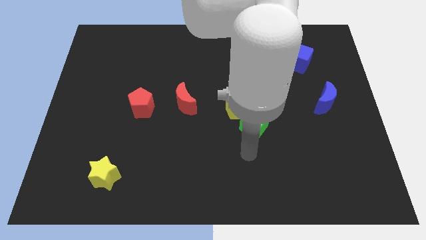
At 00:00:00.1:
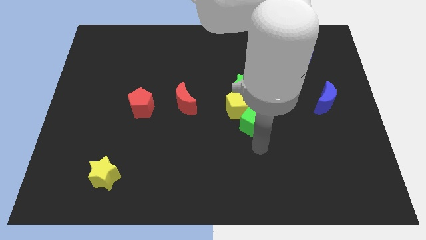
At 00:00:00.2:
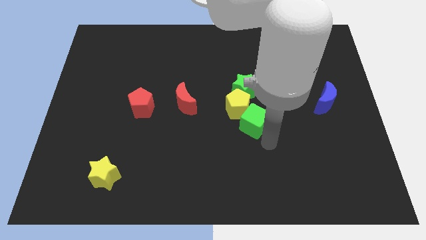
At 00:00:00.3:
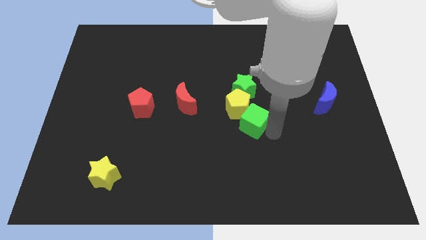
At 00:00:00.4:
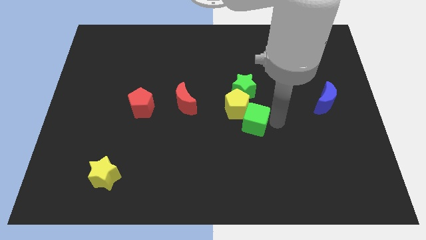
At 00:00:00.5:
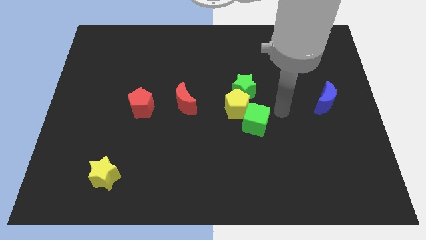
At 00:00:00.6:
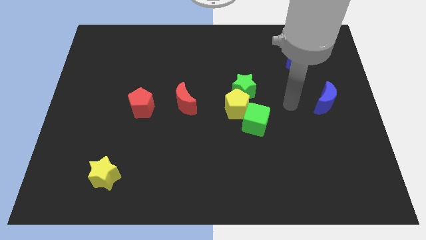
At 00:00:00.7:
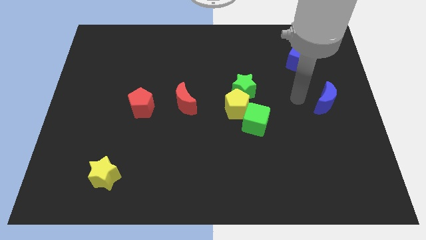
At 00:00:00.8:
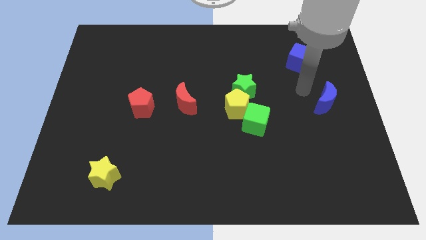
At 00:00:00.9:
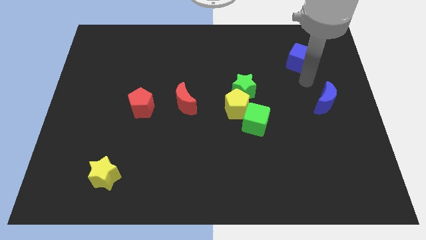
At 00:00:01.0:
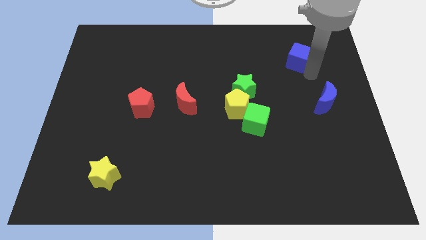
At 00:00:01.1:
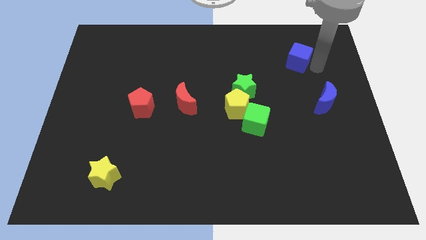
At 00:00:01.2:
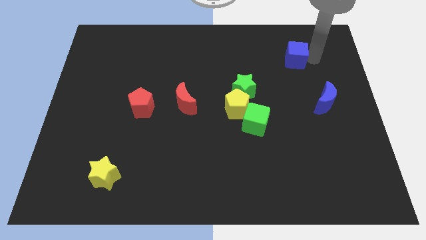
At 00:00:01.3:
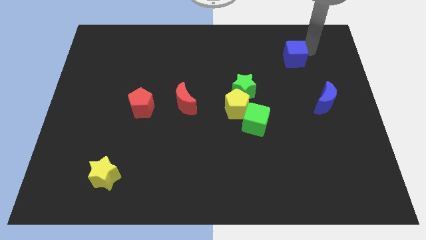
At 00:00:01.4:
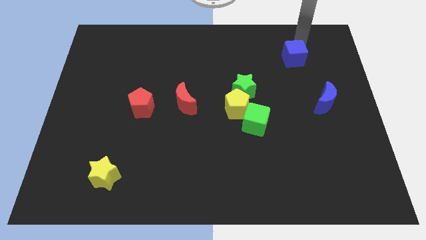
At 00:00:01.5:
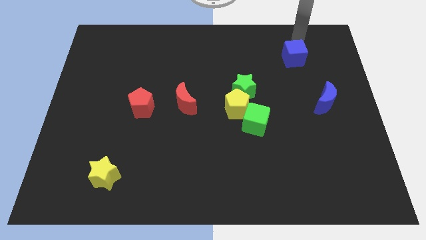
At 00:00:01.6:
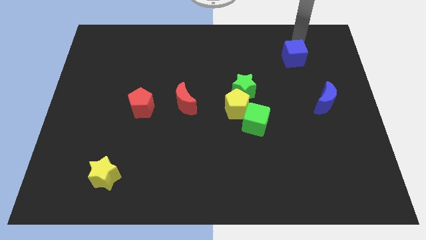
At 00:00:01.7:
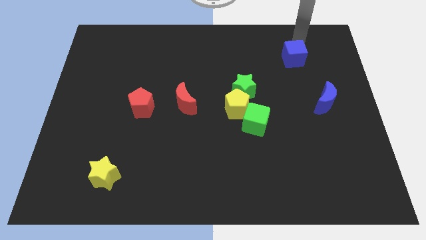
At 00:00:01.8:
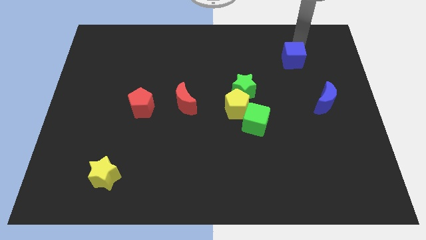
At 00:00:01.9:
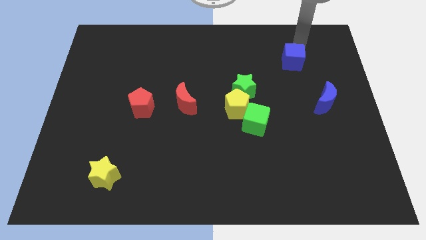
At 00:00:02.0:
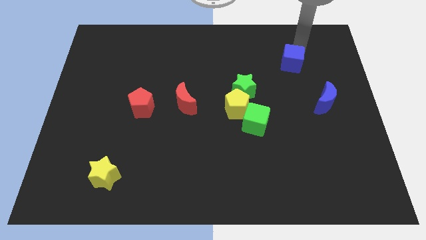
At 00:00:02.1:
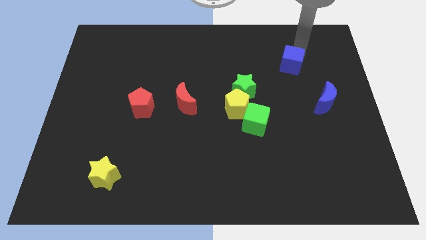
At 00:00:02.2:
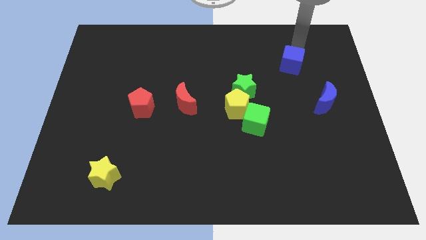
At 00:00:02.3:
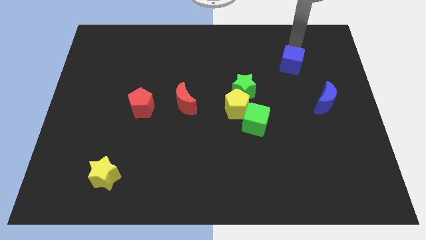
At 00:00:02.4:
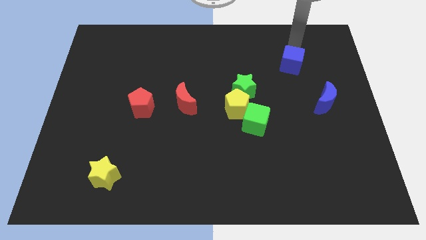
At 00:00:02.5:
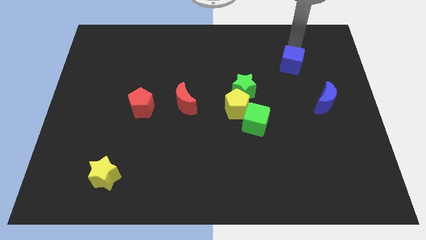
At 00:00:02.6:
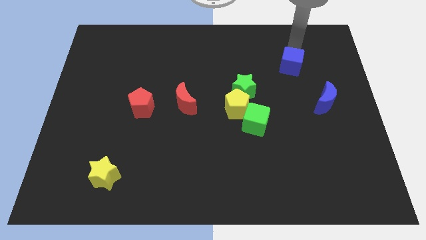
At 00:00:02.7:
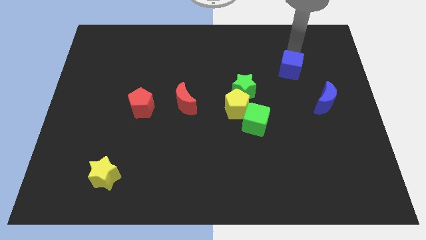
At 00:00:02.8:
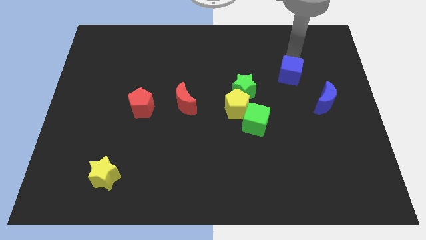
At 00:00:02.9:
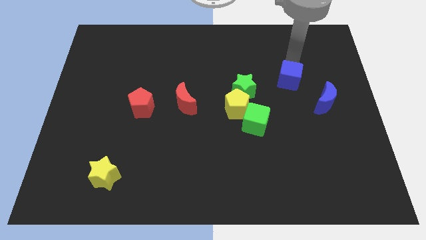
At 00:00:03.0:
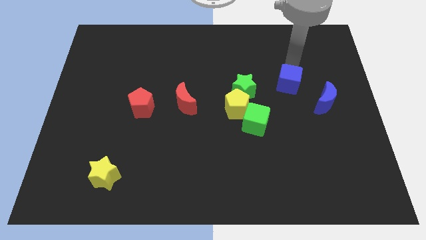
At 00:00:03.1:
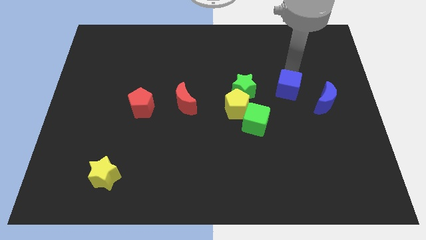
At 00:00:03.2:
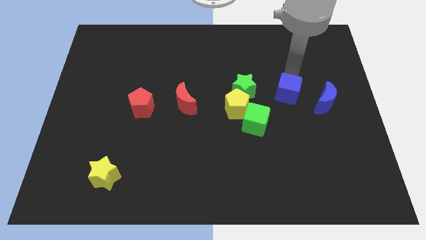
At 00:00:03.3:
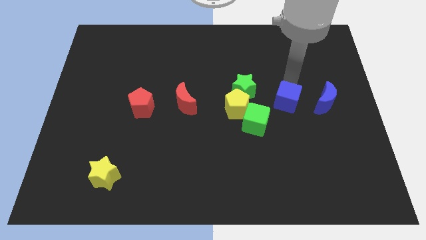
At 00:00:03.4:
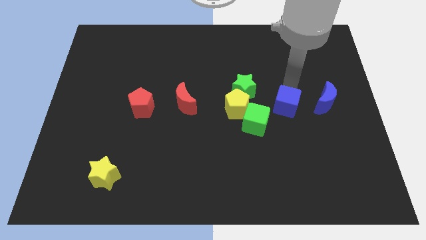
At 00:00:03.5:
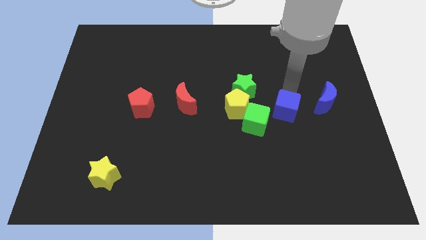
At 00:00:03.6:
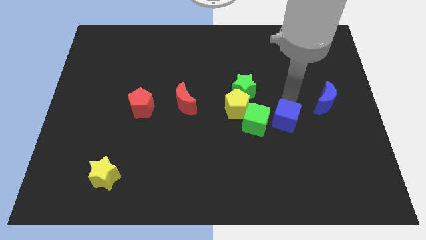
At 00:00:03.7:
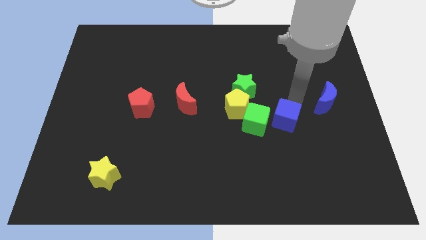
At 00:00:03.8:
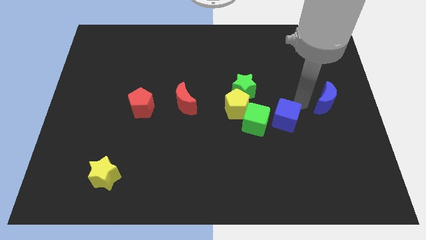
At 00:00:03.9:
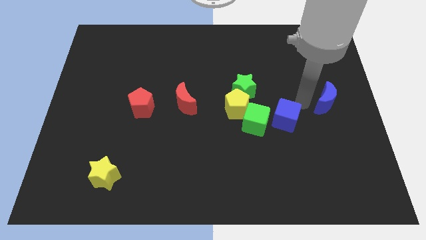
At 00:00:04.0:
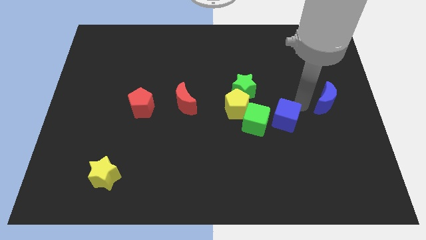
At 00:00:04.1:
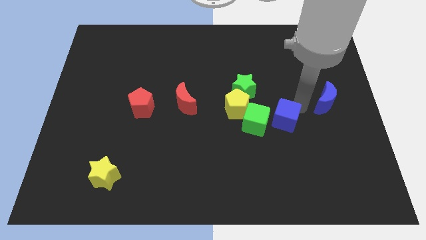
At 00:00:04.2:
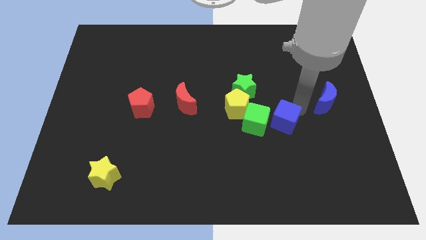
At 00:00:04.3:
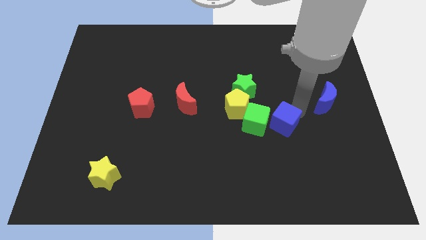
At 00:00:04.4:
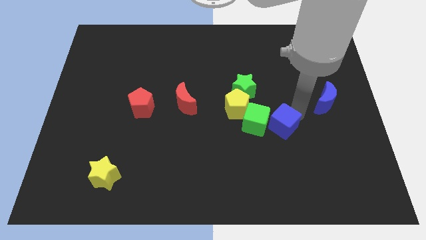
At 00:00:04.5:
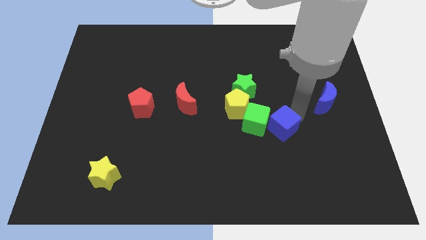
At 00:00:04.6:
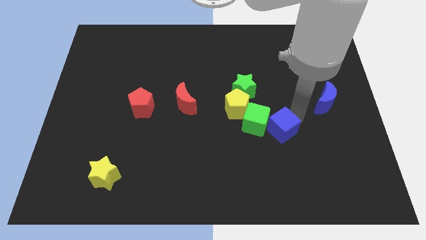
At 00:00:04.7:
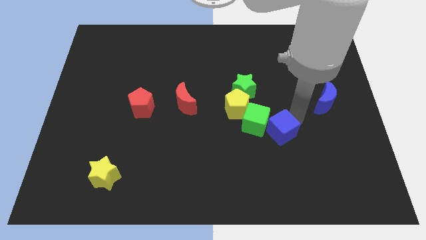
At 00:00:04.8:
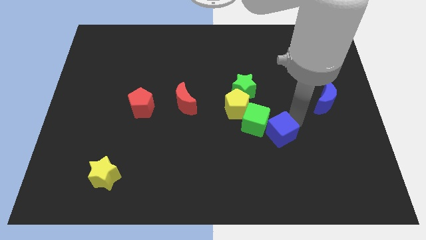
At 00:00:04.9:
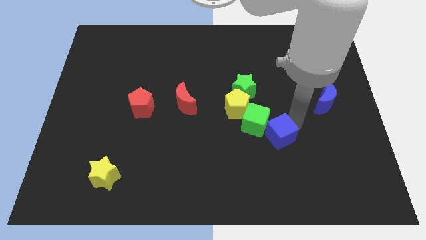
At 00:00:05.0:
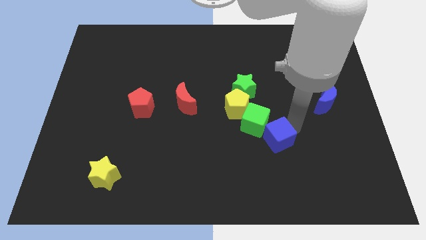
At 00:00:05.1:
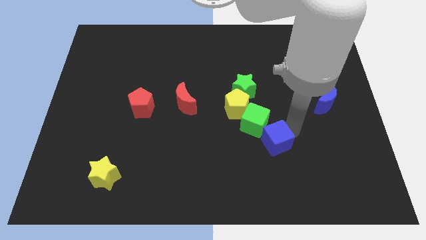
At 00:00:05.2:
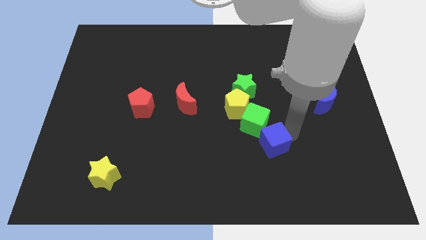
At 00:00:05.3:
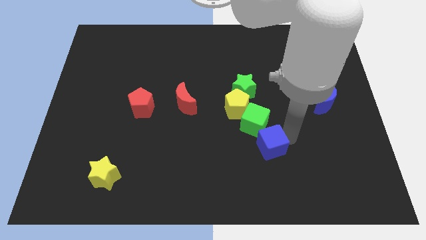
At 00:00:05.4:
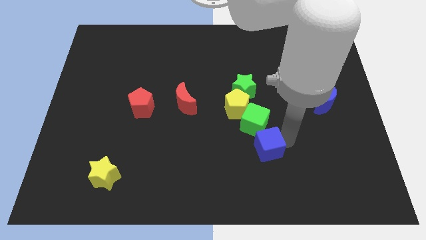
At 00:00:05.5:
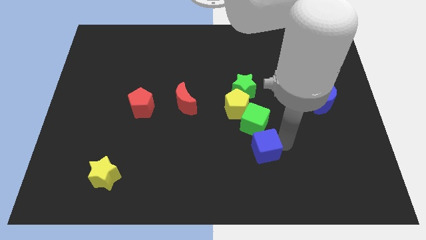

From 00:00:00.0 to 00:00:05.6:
move the blue cube down and left

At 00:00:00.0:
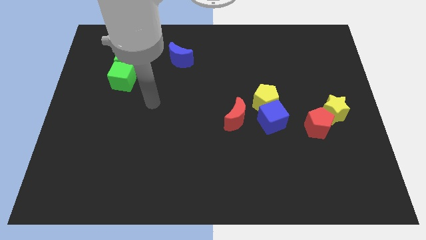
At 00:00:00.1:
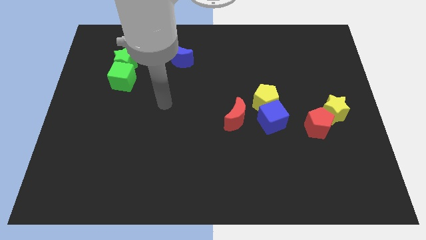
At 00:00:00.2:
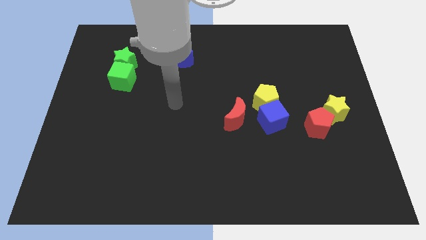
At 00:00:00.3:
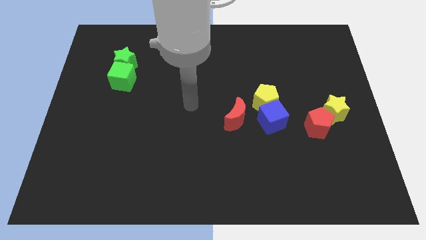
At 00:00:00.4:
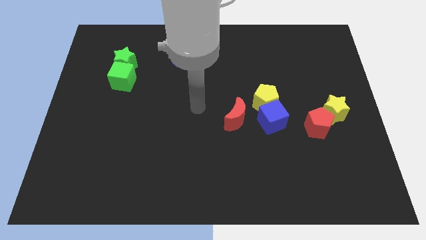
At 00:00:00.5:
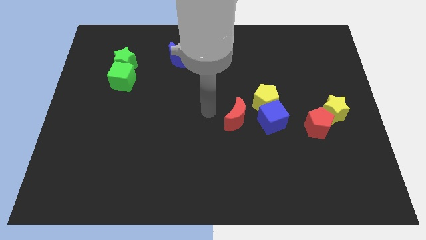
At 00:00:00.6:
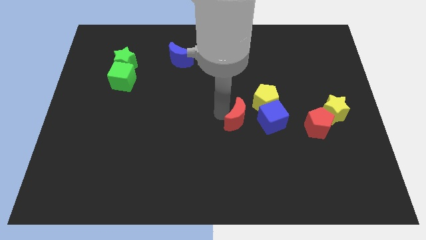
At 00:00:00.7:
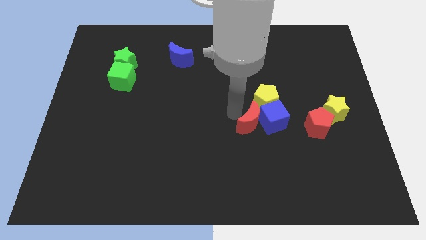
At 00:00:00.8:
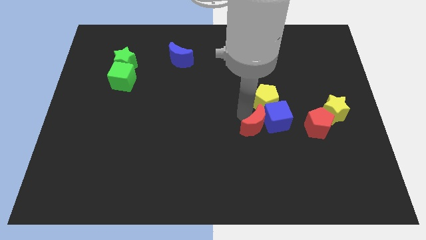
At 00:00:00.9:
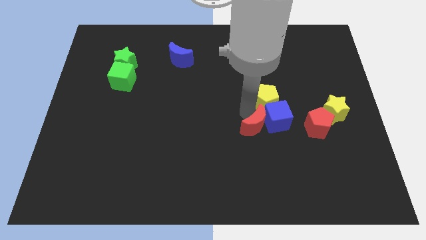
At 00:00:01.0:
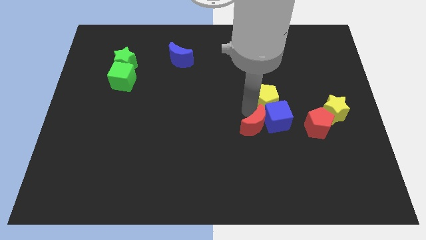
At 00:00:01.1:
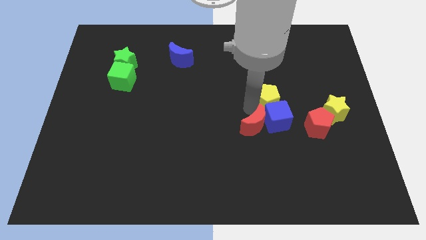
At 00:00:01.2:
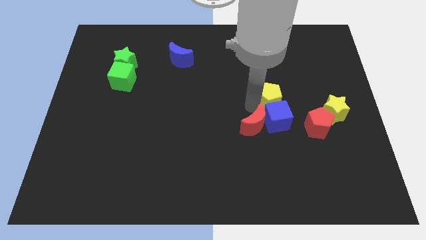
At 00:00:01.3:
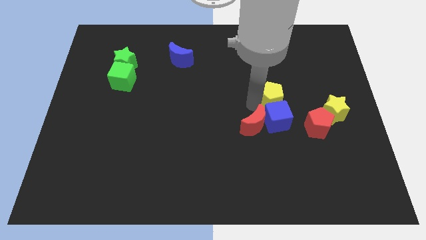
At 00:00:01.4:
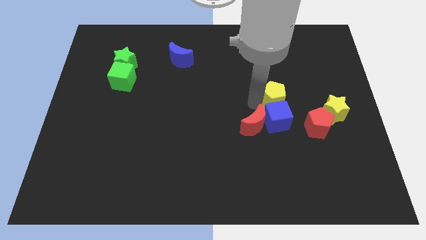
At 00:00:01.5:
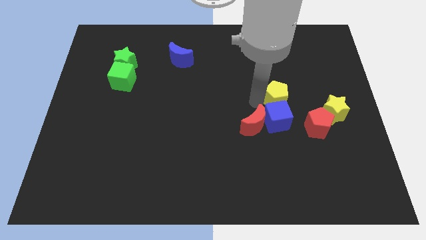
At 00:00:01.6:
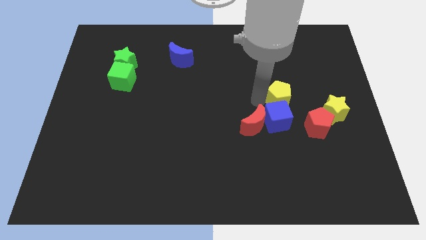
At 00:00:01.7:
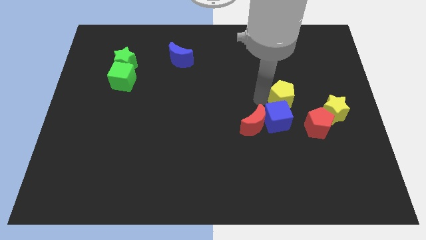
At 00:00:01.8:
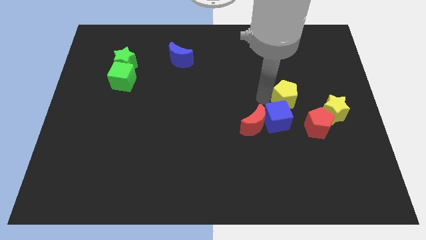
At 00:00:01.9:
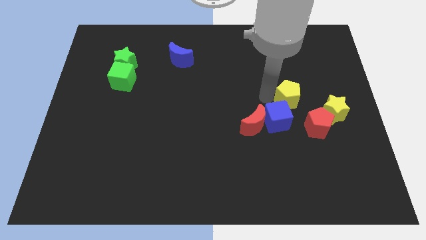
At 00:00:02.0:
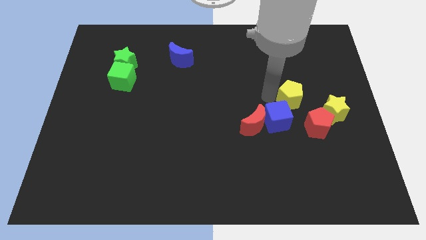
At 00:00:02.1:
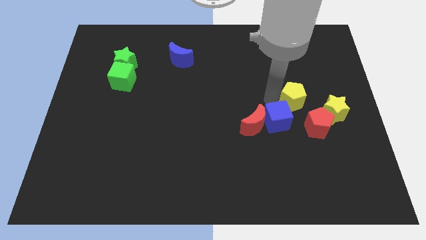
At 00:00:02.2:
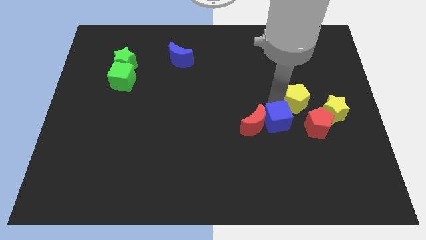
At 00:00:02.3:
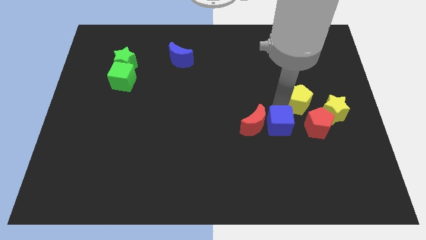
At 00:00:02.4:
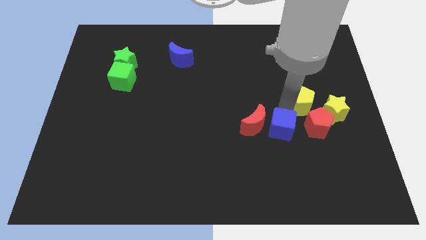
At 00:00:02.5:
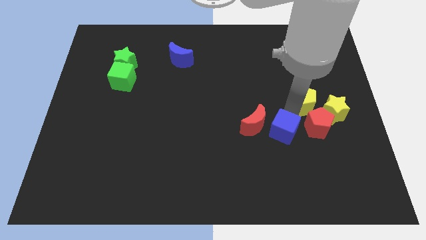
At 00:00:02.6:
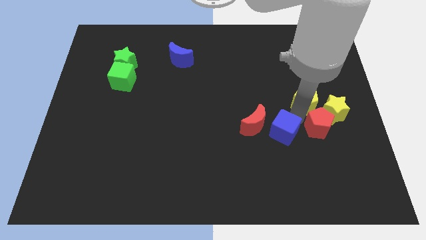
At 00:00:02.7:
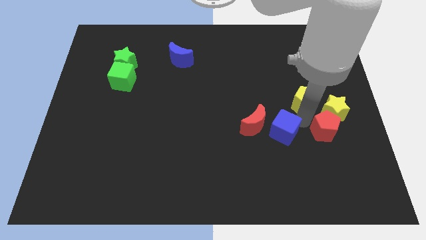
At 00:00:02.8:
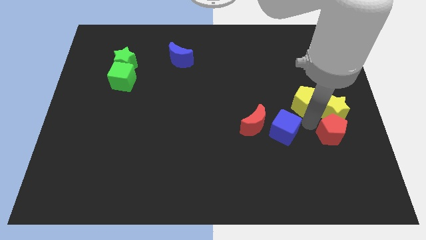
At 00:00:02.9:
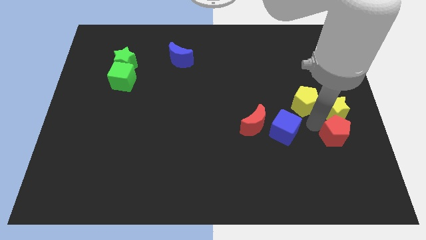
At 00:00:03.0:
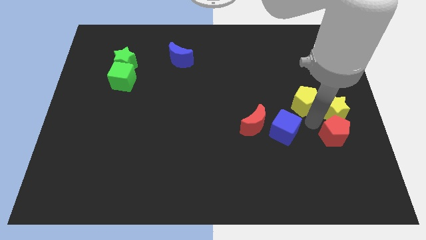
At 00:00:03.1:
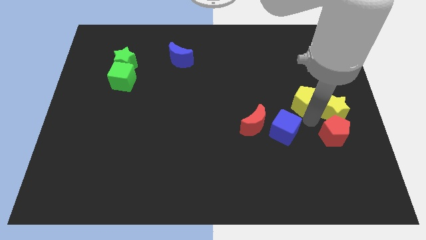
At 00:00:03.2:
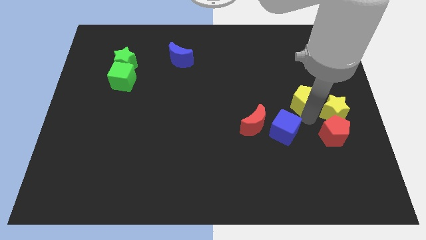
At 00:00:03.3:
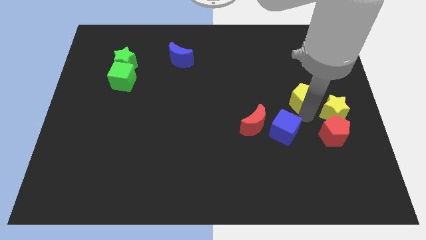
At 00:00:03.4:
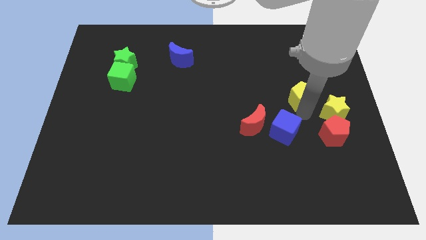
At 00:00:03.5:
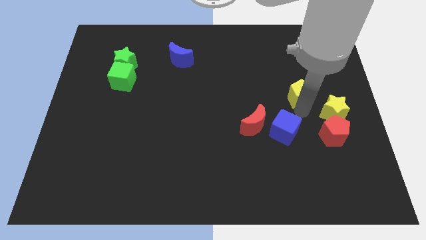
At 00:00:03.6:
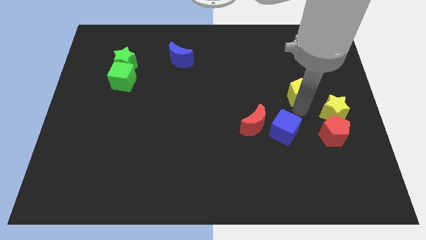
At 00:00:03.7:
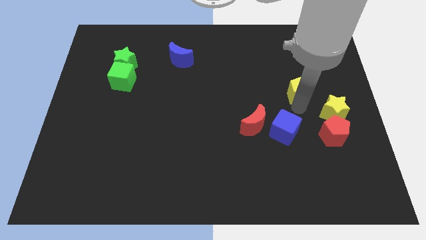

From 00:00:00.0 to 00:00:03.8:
slide the yellow pentagon diagonally up and to the right slightly
